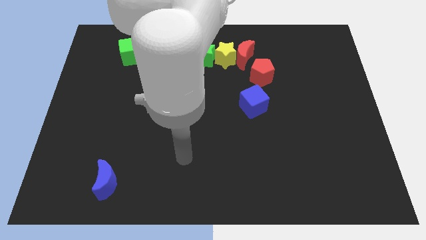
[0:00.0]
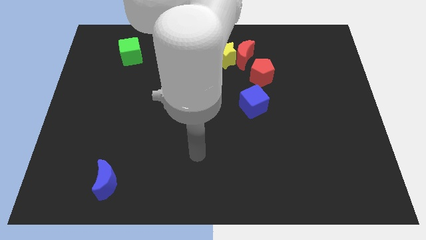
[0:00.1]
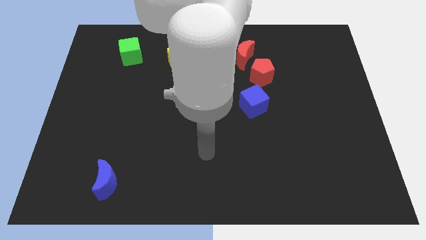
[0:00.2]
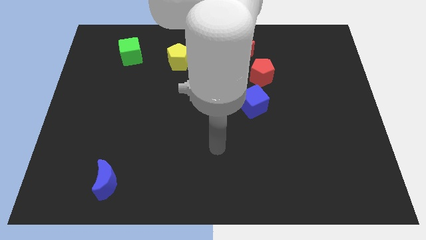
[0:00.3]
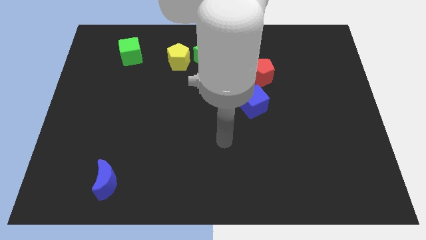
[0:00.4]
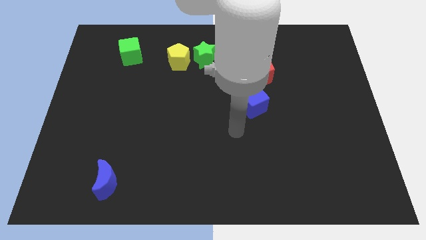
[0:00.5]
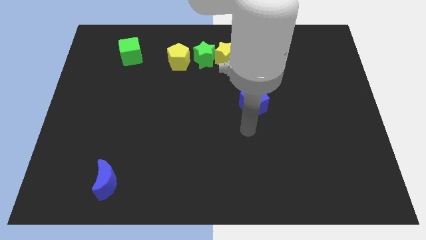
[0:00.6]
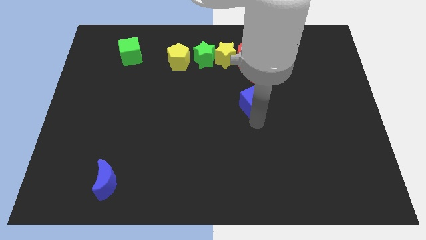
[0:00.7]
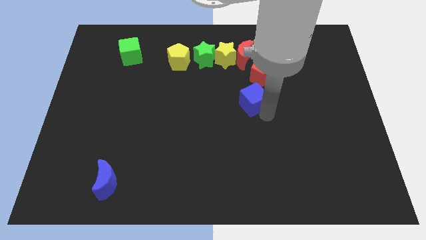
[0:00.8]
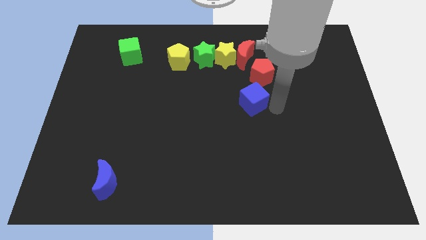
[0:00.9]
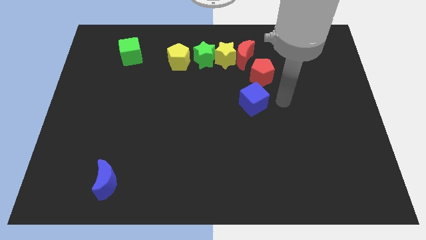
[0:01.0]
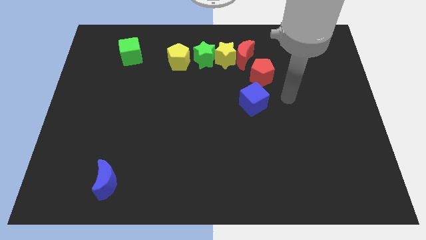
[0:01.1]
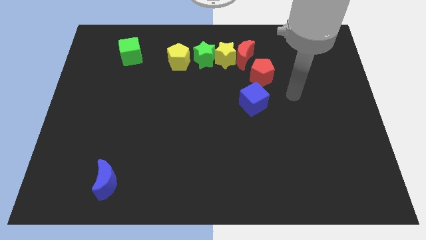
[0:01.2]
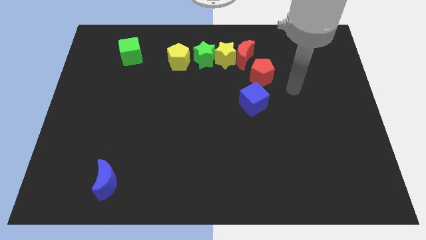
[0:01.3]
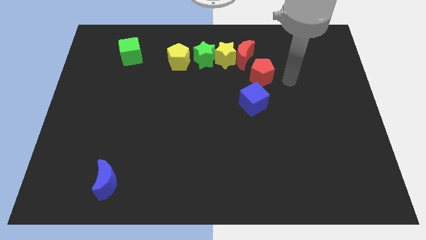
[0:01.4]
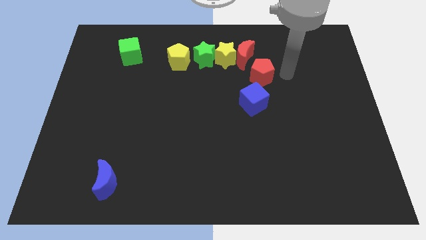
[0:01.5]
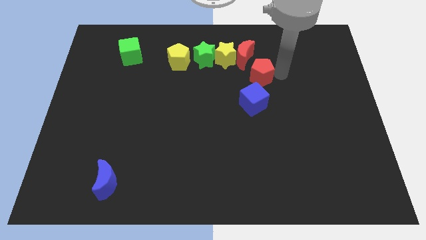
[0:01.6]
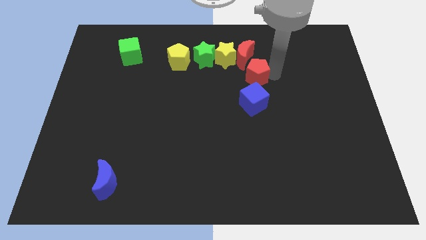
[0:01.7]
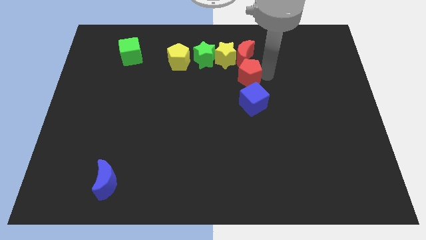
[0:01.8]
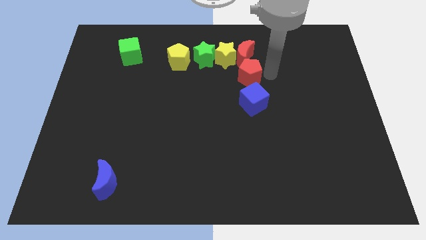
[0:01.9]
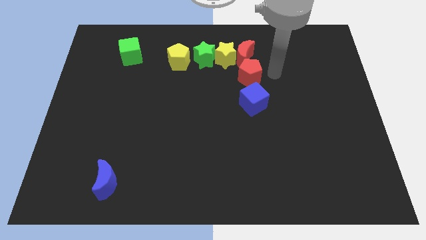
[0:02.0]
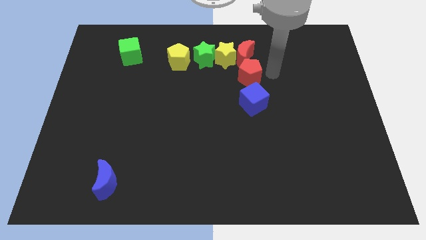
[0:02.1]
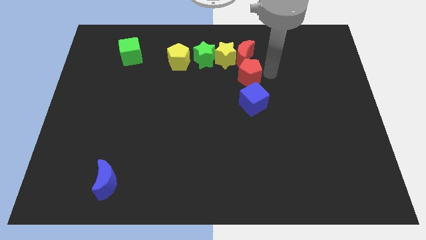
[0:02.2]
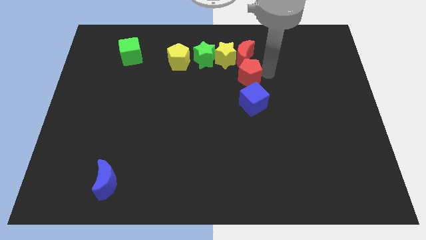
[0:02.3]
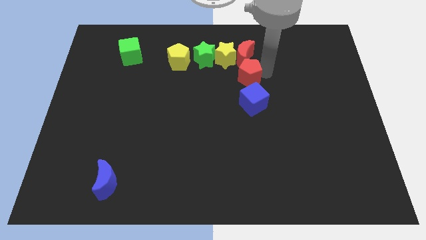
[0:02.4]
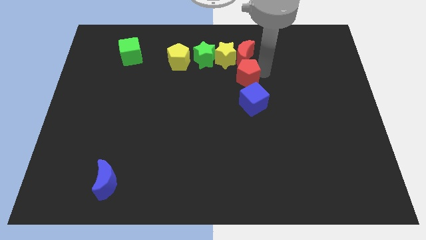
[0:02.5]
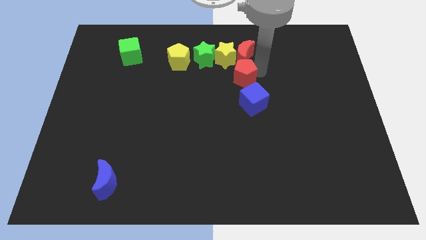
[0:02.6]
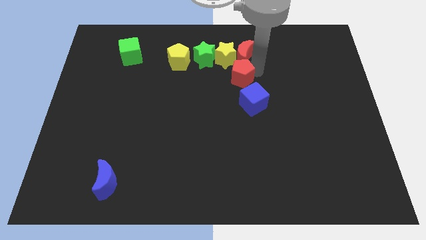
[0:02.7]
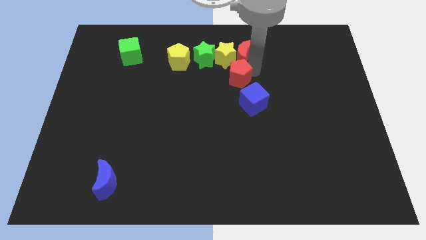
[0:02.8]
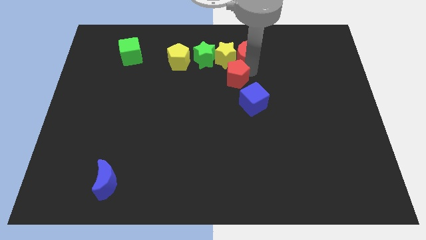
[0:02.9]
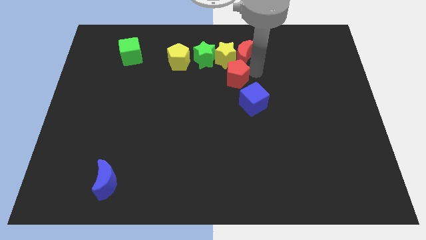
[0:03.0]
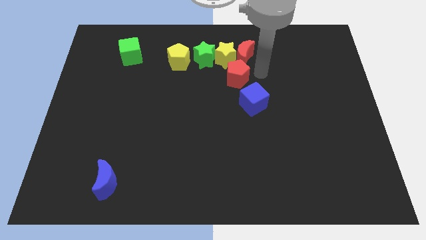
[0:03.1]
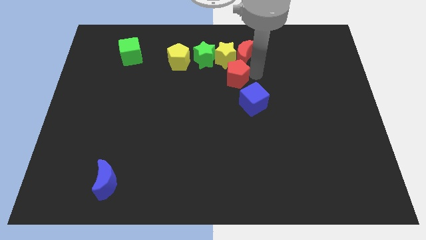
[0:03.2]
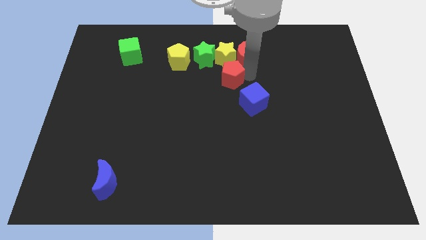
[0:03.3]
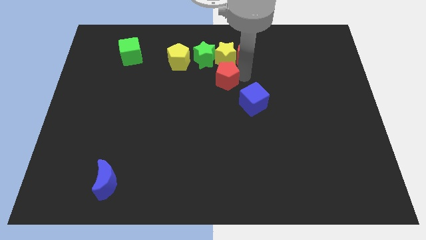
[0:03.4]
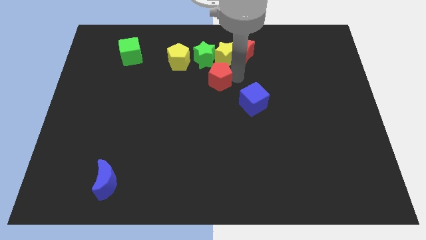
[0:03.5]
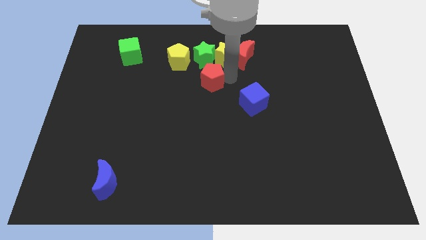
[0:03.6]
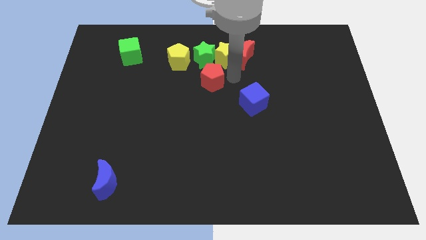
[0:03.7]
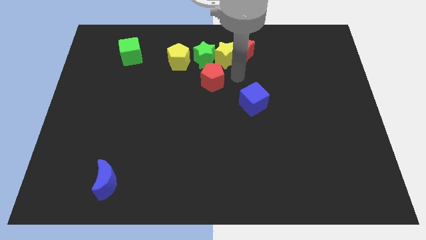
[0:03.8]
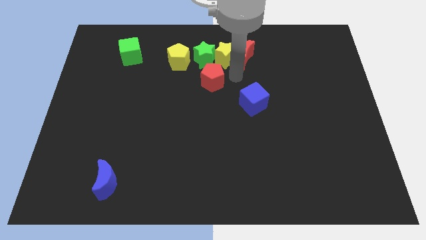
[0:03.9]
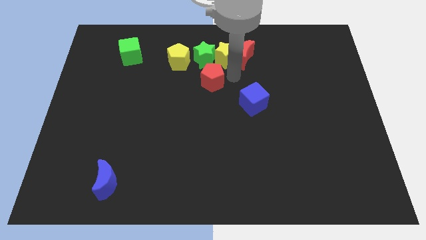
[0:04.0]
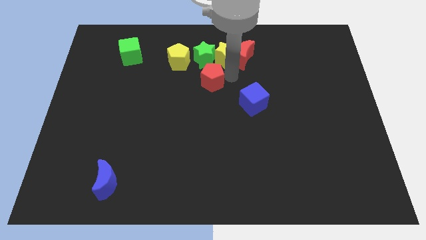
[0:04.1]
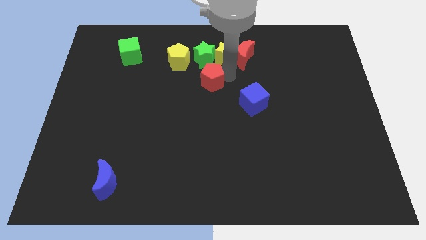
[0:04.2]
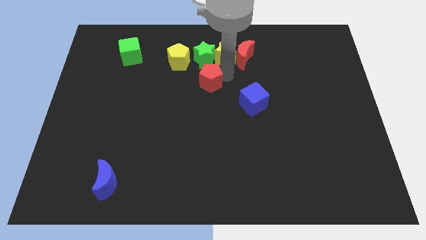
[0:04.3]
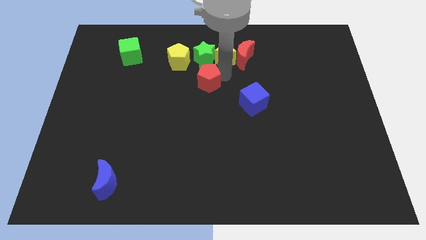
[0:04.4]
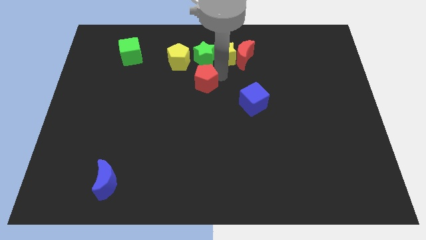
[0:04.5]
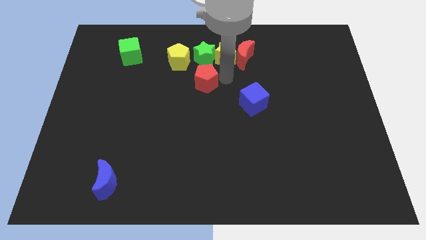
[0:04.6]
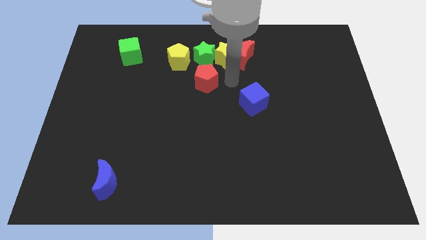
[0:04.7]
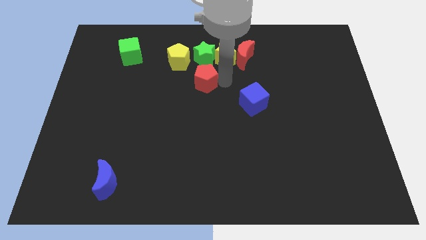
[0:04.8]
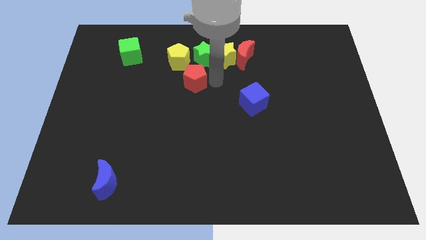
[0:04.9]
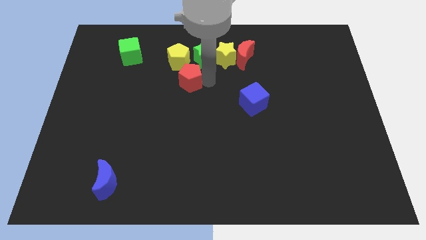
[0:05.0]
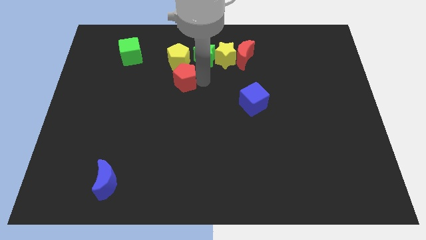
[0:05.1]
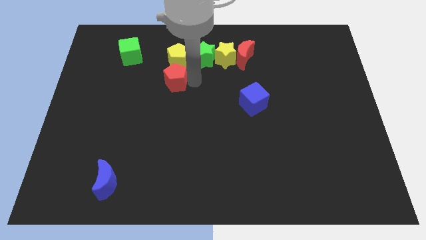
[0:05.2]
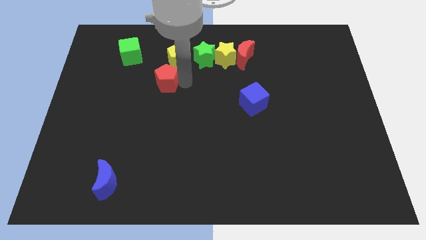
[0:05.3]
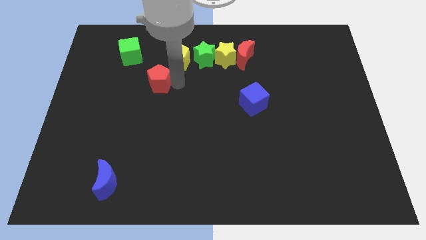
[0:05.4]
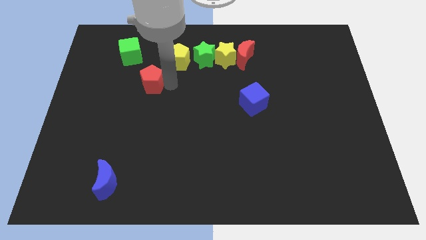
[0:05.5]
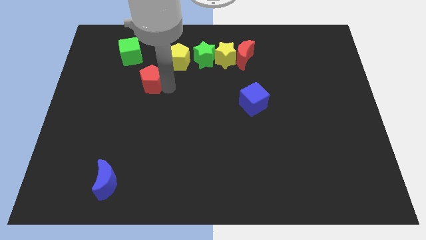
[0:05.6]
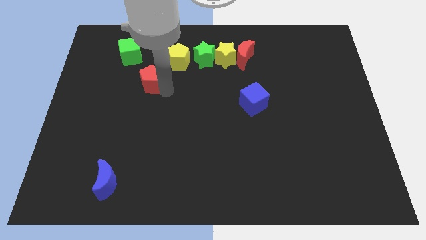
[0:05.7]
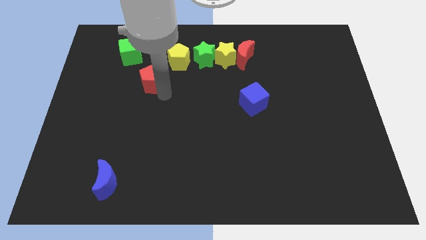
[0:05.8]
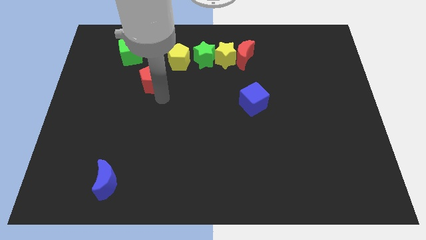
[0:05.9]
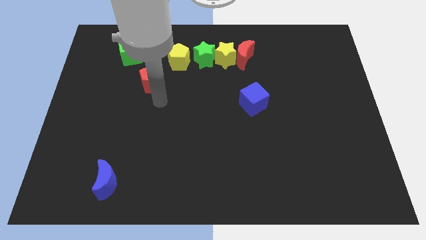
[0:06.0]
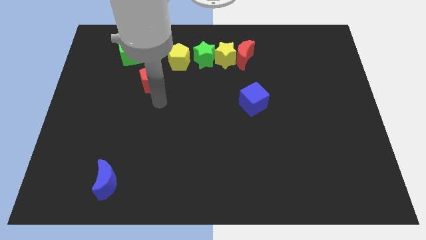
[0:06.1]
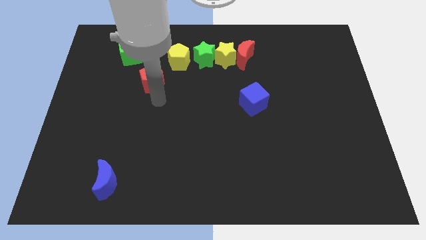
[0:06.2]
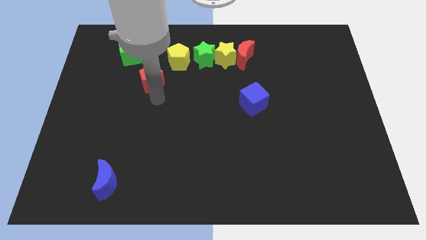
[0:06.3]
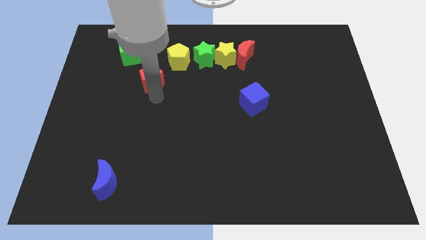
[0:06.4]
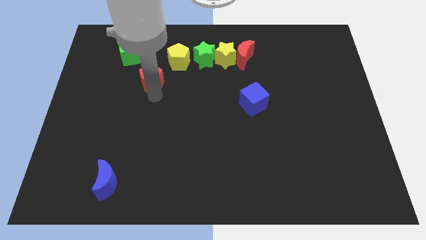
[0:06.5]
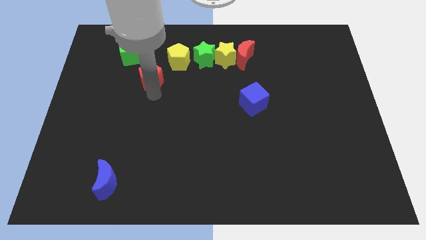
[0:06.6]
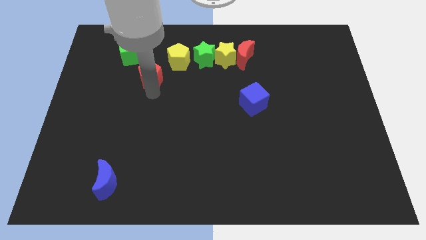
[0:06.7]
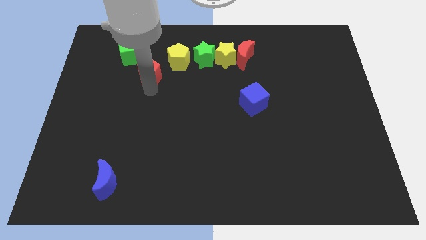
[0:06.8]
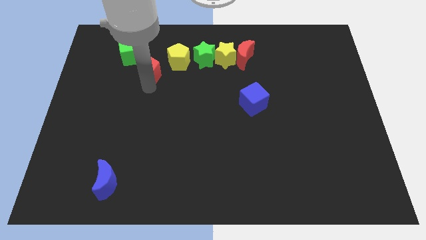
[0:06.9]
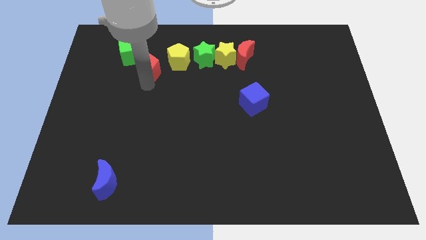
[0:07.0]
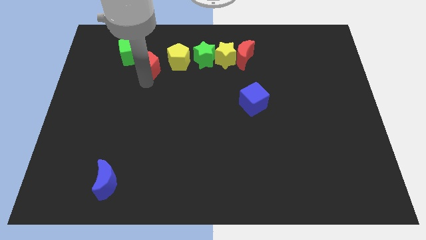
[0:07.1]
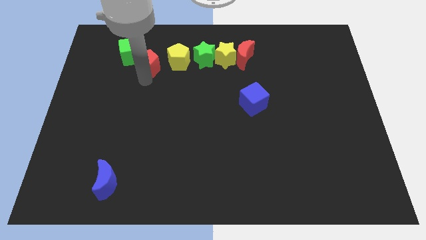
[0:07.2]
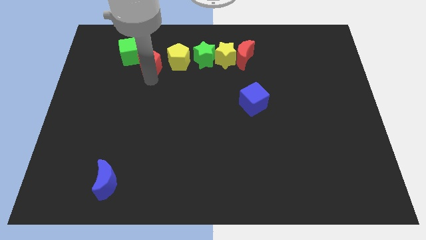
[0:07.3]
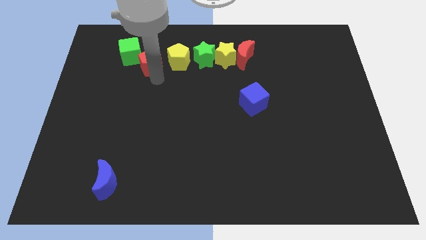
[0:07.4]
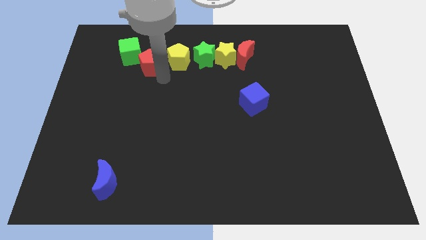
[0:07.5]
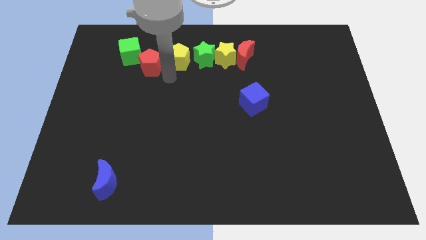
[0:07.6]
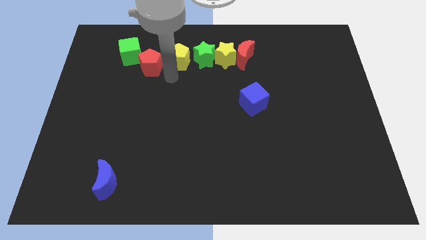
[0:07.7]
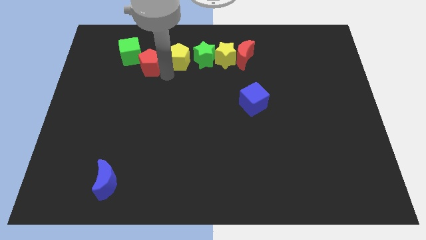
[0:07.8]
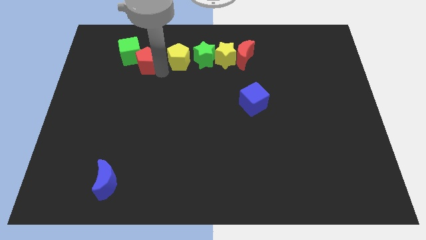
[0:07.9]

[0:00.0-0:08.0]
move the red pentagon towards the green cube
